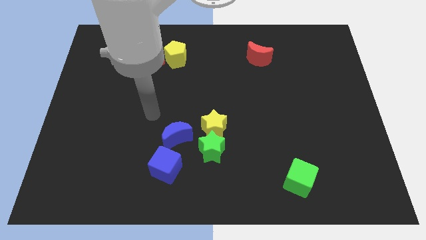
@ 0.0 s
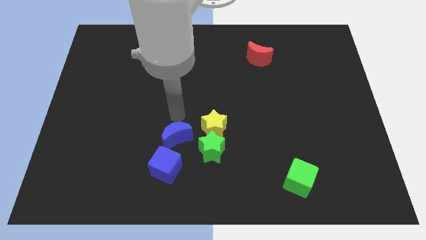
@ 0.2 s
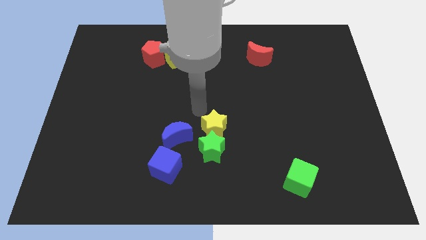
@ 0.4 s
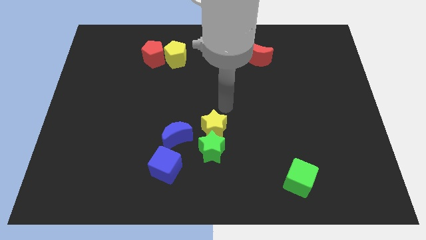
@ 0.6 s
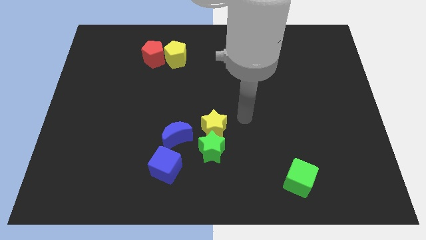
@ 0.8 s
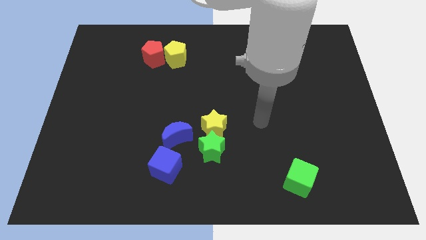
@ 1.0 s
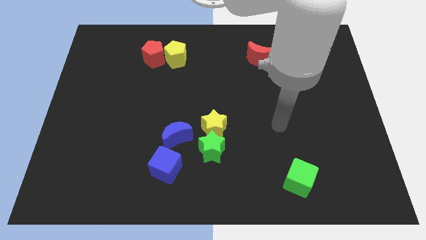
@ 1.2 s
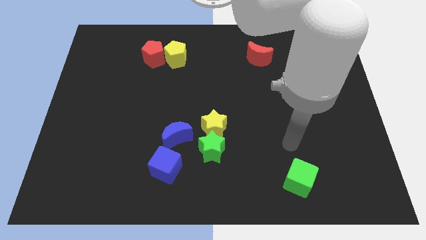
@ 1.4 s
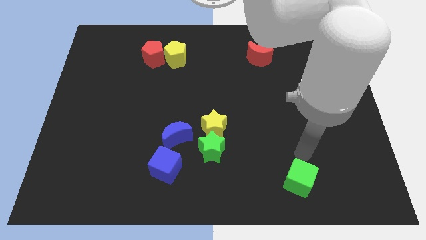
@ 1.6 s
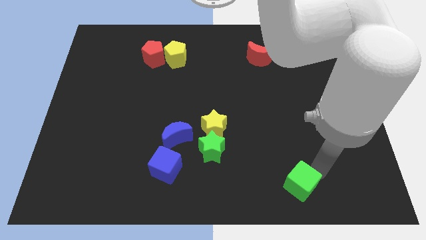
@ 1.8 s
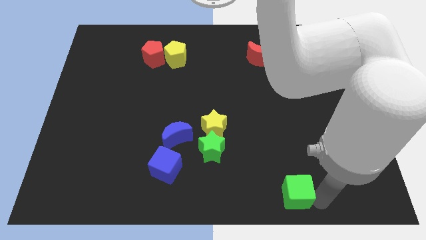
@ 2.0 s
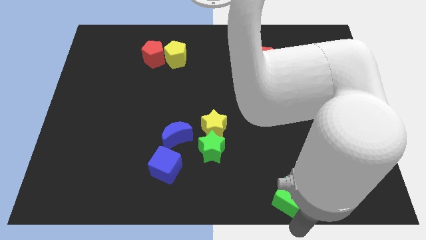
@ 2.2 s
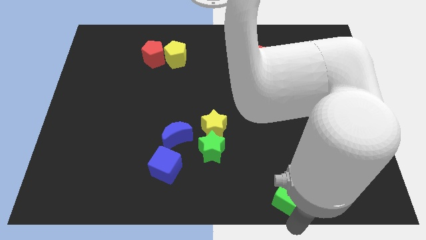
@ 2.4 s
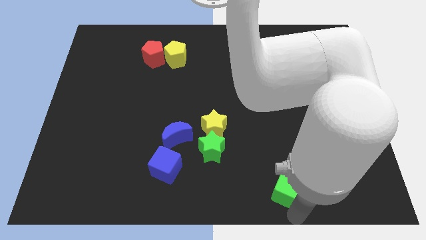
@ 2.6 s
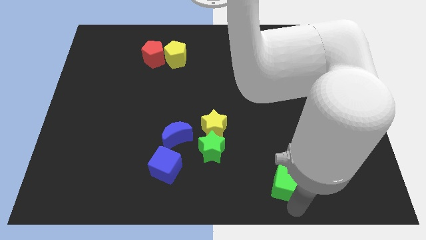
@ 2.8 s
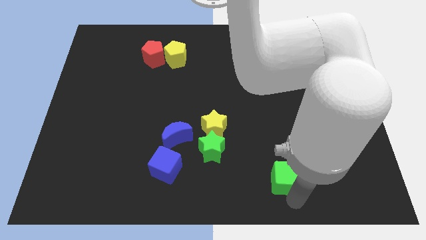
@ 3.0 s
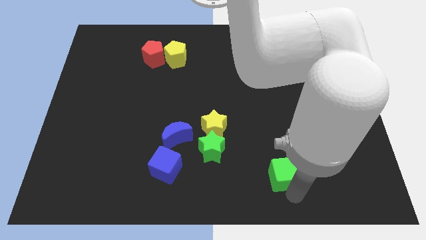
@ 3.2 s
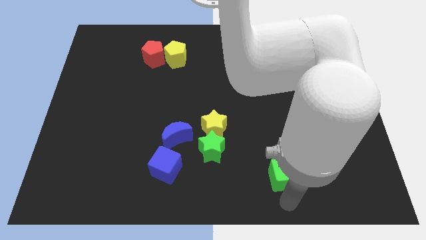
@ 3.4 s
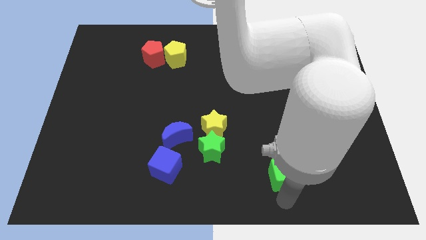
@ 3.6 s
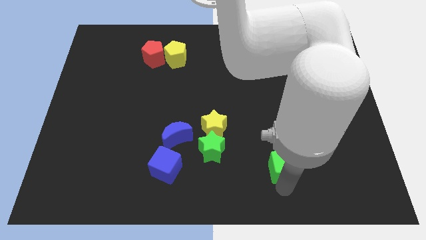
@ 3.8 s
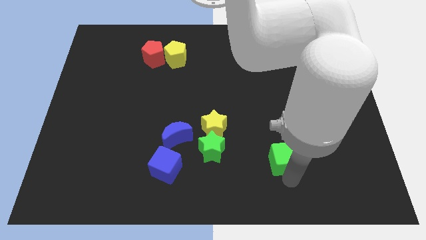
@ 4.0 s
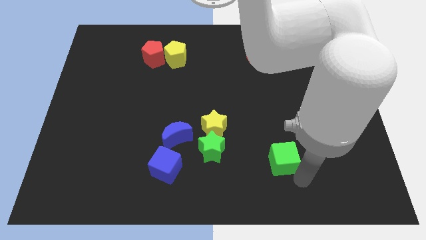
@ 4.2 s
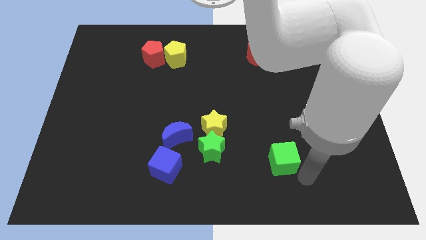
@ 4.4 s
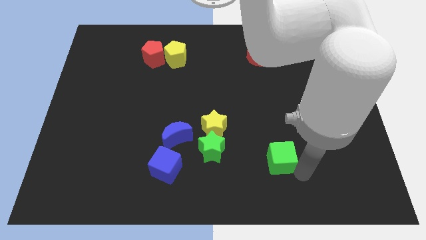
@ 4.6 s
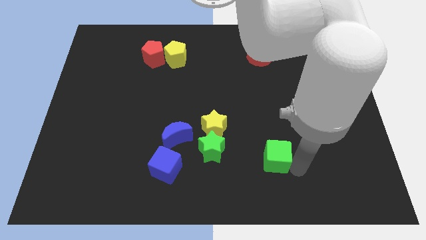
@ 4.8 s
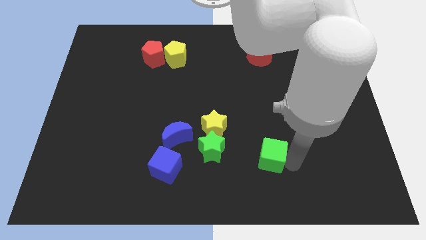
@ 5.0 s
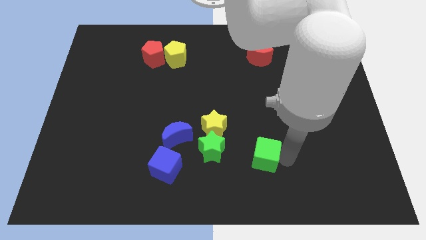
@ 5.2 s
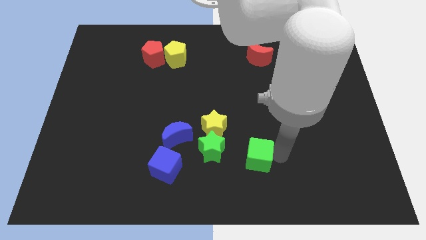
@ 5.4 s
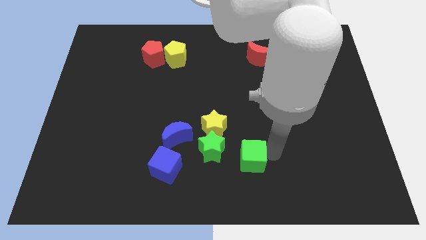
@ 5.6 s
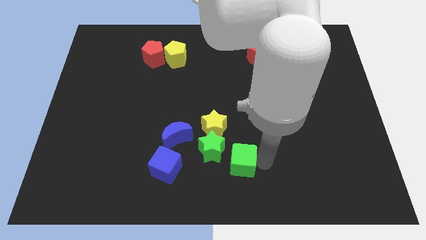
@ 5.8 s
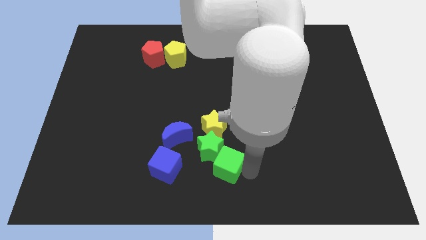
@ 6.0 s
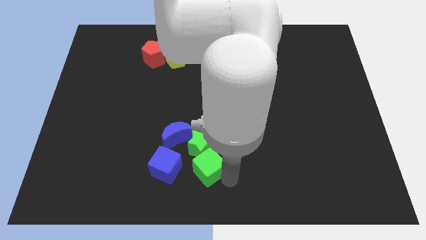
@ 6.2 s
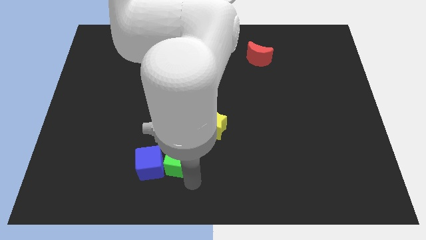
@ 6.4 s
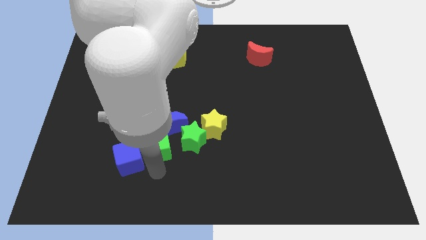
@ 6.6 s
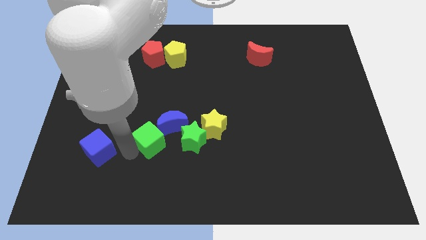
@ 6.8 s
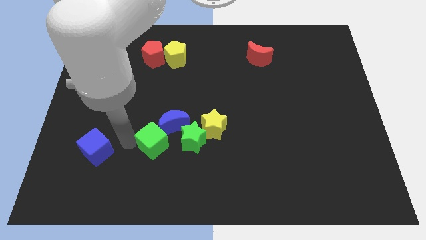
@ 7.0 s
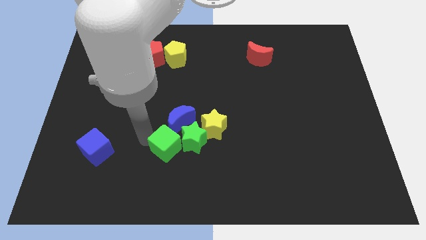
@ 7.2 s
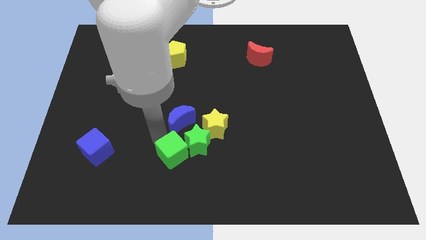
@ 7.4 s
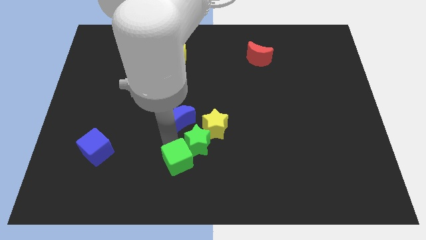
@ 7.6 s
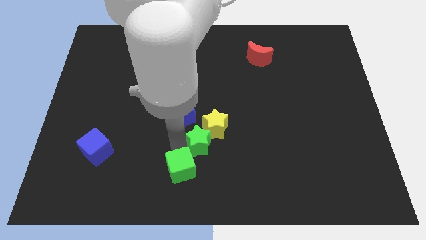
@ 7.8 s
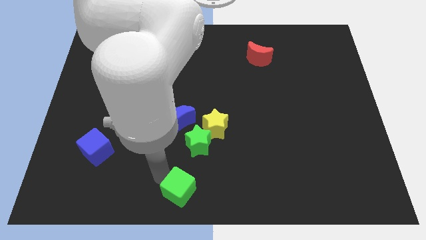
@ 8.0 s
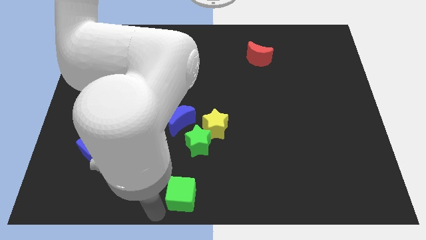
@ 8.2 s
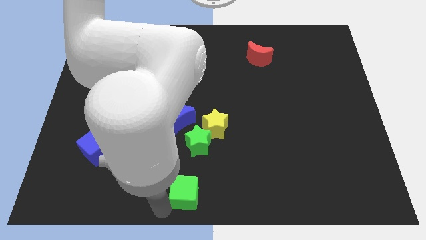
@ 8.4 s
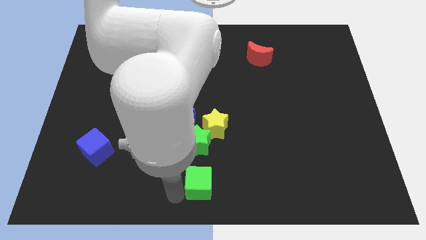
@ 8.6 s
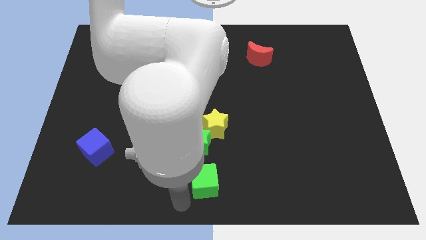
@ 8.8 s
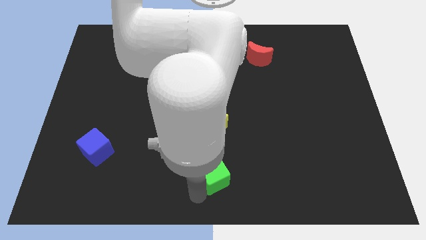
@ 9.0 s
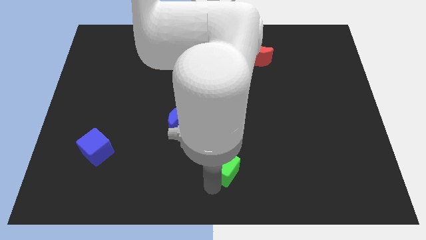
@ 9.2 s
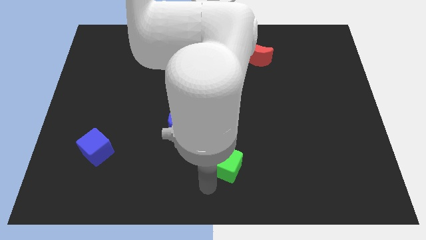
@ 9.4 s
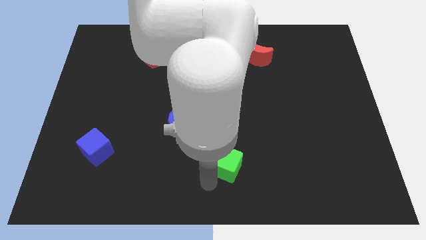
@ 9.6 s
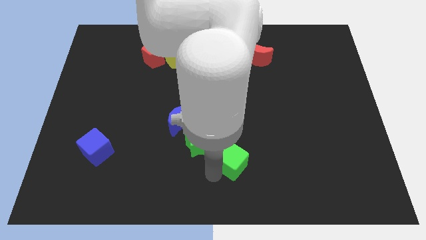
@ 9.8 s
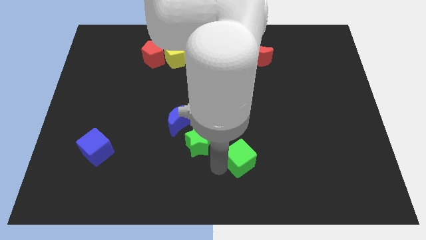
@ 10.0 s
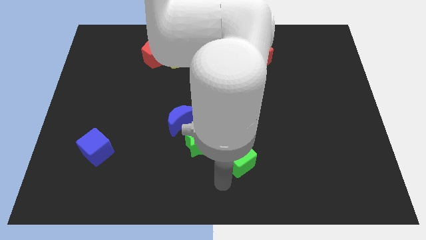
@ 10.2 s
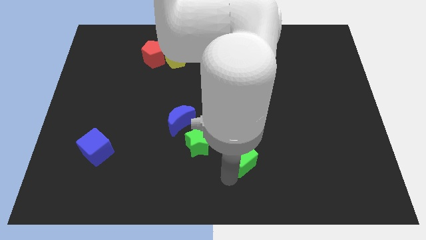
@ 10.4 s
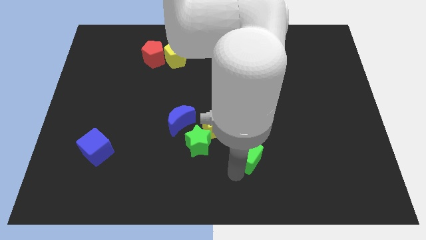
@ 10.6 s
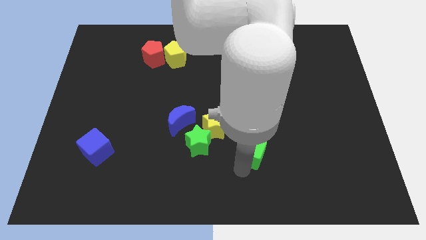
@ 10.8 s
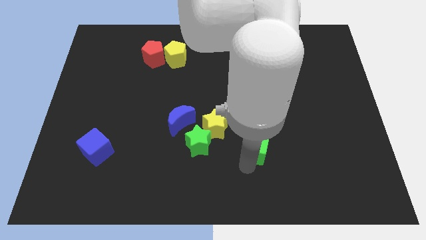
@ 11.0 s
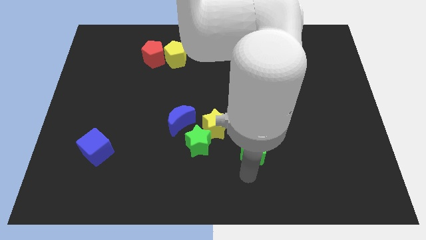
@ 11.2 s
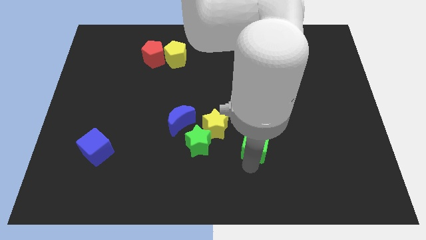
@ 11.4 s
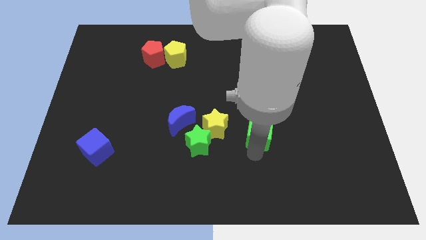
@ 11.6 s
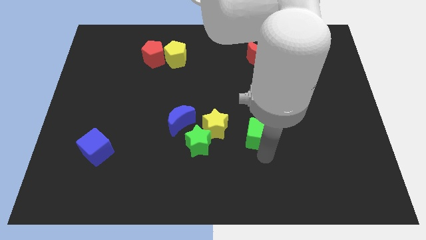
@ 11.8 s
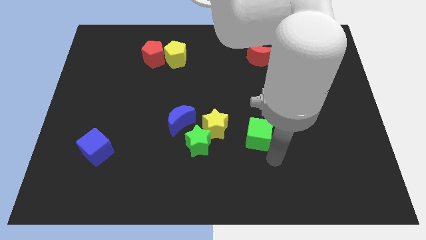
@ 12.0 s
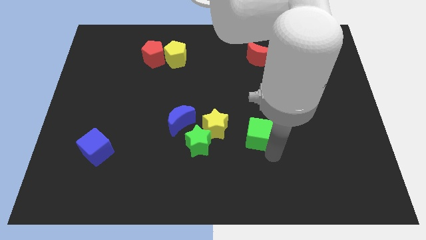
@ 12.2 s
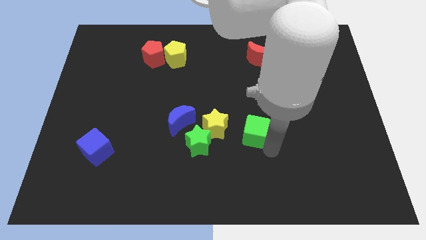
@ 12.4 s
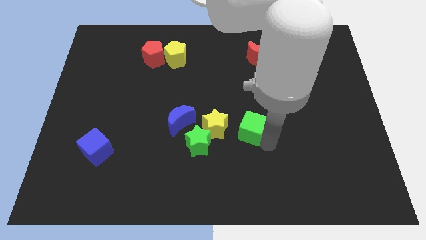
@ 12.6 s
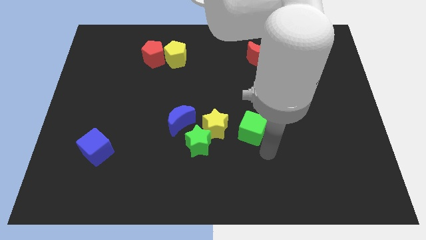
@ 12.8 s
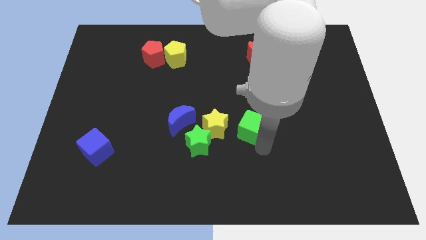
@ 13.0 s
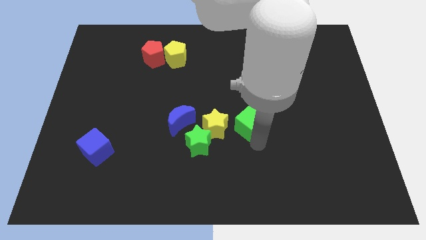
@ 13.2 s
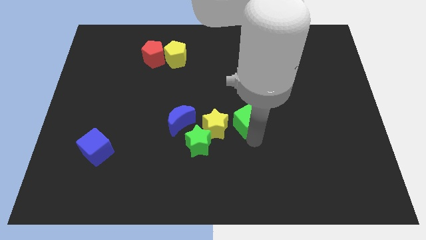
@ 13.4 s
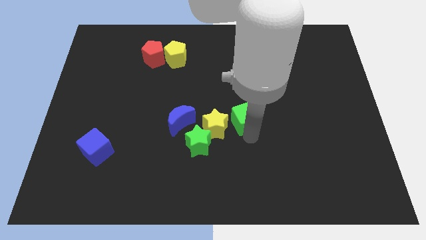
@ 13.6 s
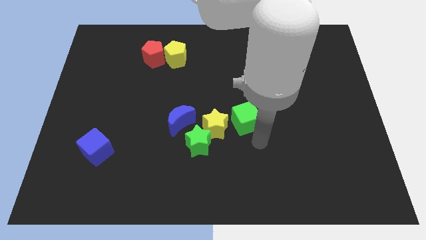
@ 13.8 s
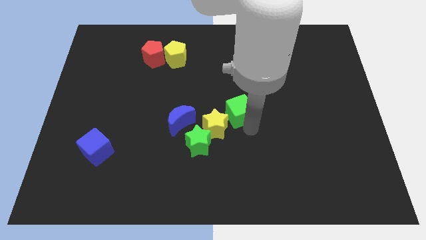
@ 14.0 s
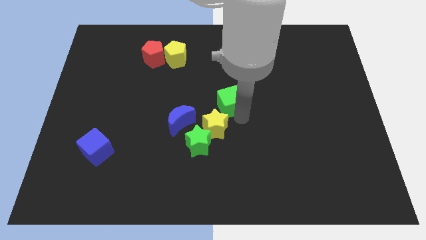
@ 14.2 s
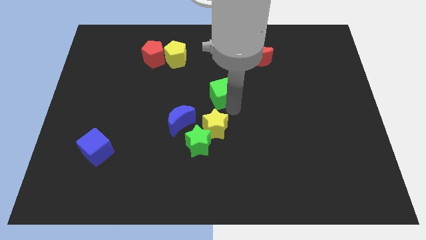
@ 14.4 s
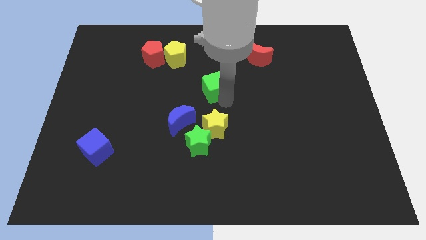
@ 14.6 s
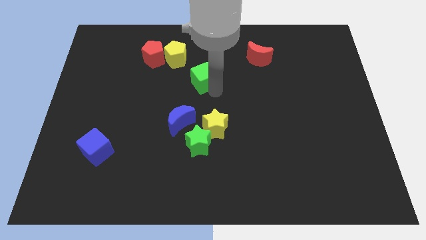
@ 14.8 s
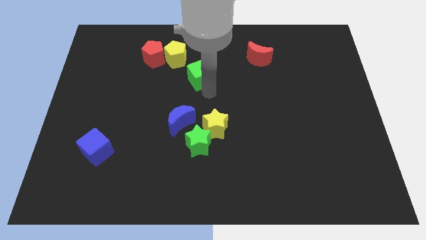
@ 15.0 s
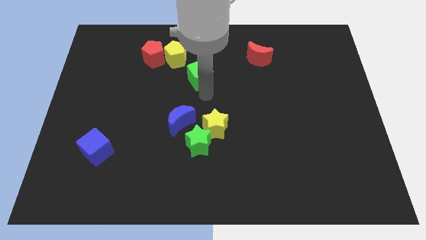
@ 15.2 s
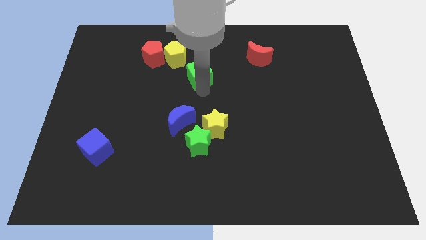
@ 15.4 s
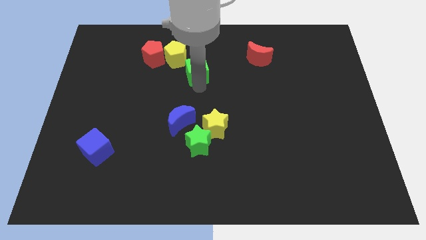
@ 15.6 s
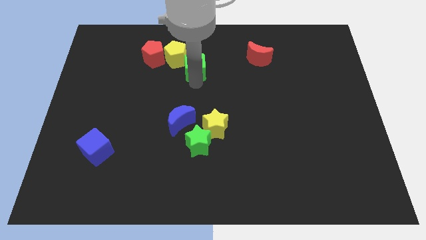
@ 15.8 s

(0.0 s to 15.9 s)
put the green cube to the right side of the red pentagon
